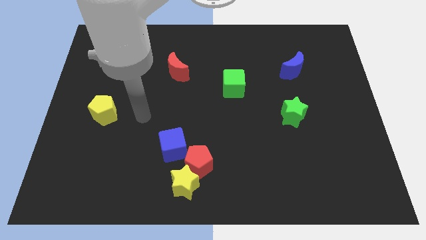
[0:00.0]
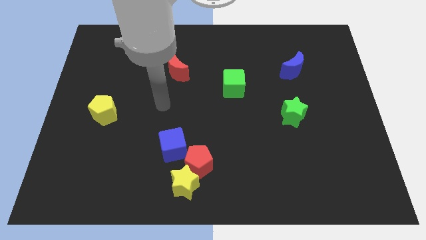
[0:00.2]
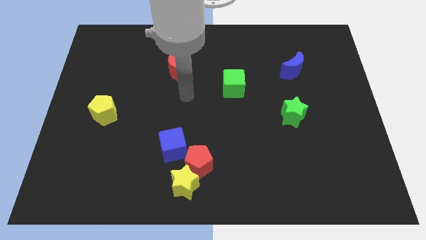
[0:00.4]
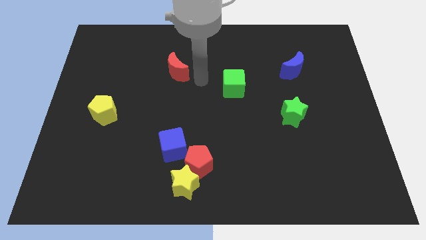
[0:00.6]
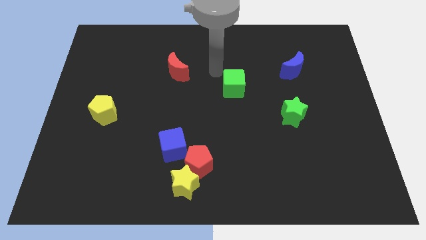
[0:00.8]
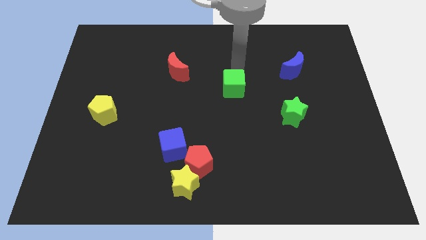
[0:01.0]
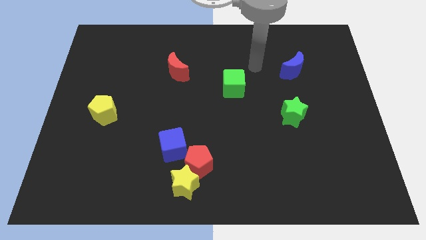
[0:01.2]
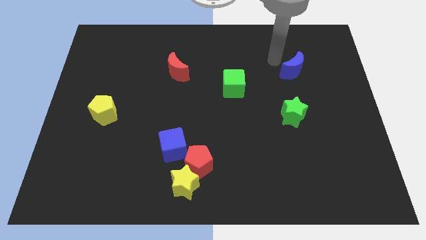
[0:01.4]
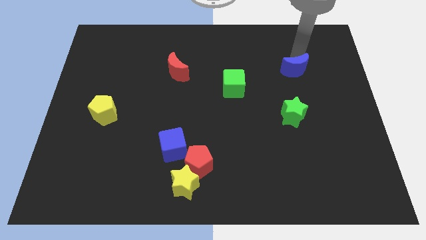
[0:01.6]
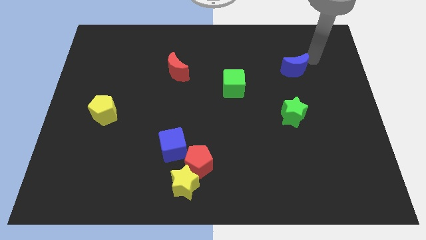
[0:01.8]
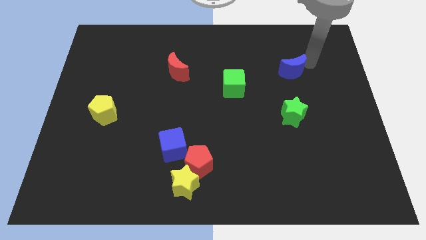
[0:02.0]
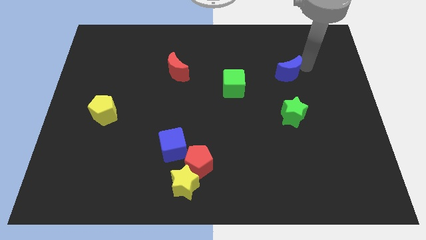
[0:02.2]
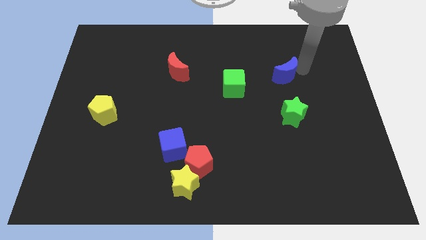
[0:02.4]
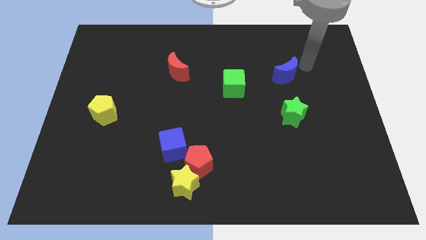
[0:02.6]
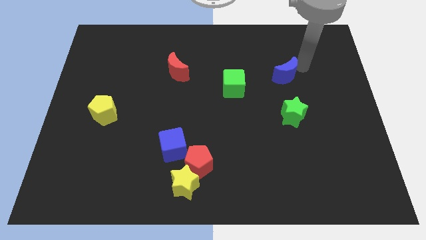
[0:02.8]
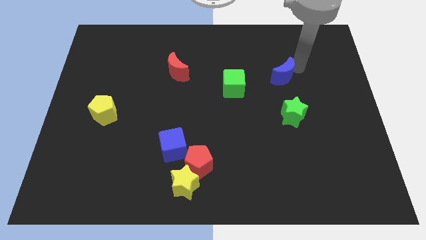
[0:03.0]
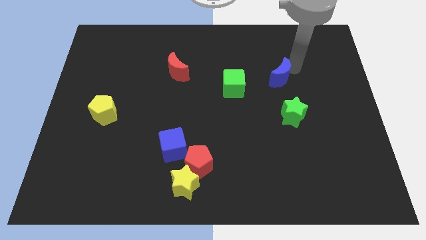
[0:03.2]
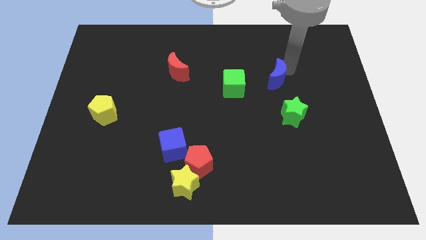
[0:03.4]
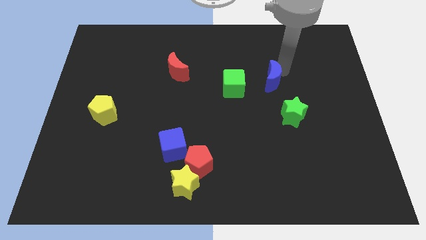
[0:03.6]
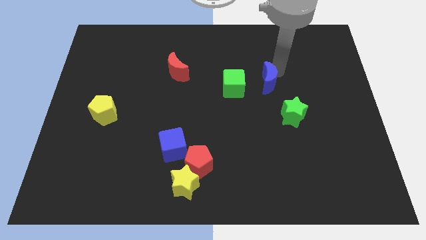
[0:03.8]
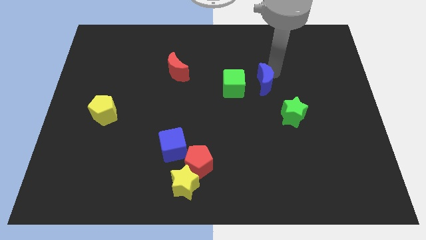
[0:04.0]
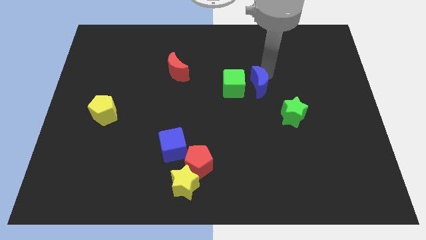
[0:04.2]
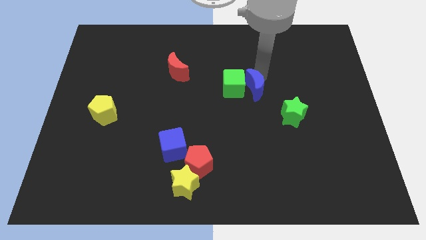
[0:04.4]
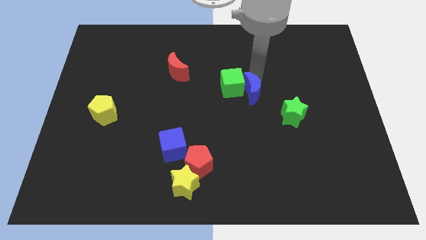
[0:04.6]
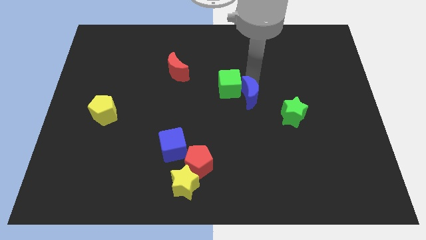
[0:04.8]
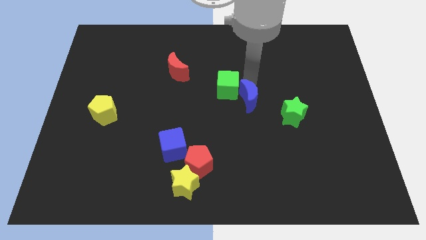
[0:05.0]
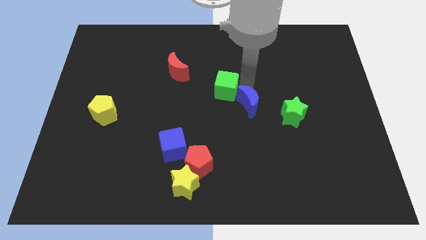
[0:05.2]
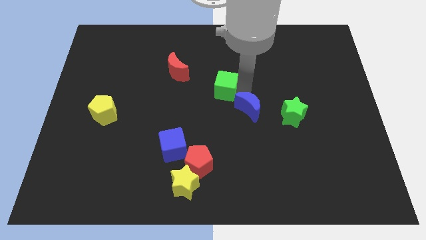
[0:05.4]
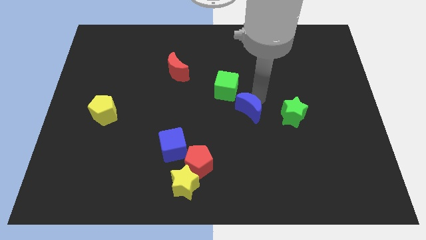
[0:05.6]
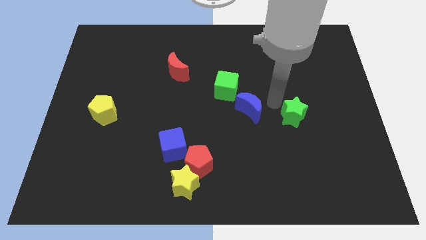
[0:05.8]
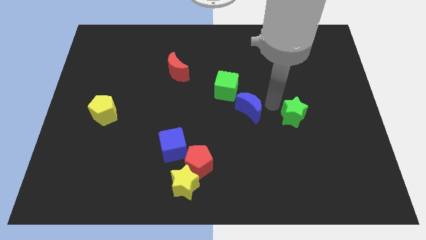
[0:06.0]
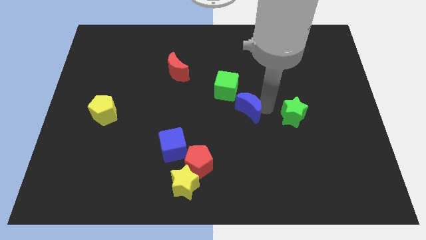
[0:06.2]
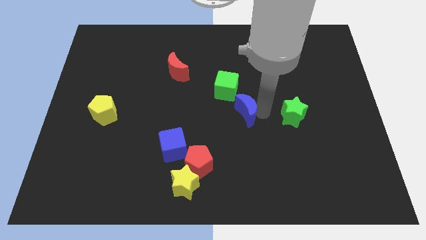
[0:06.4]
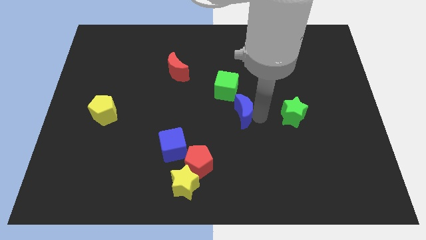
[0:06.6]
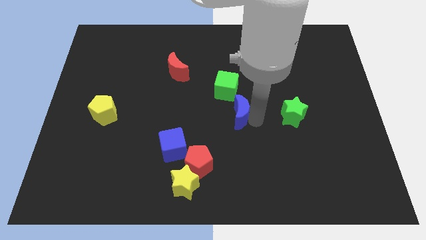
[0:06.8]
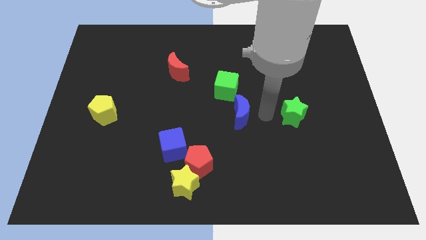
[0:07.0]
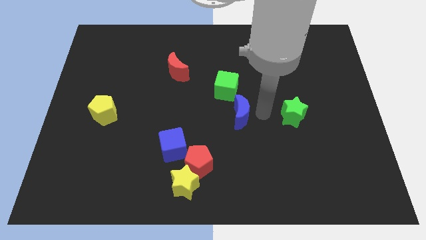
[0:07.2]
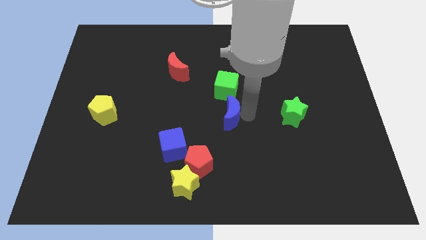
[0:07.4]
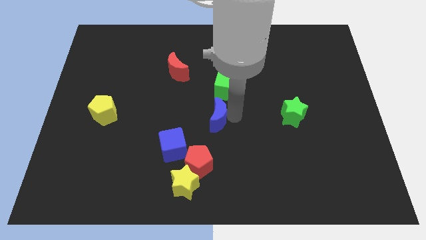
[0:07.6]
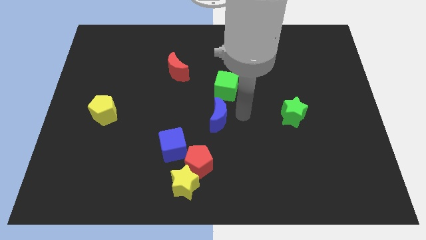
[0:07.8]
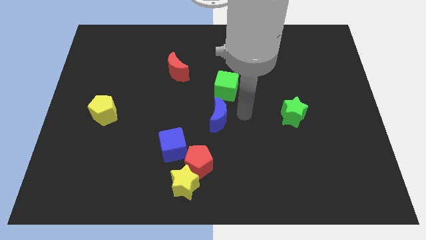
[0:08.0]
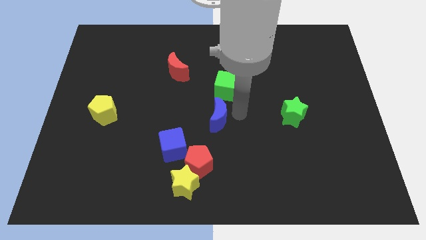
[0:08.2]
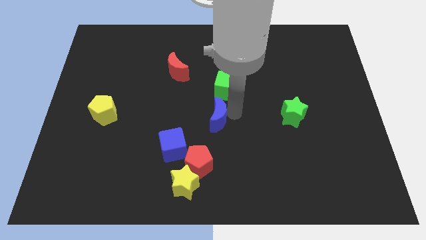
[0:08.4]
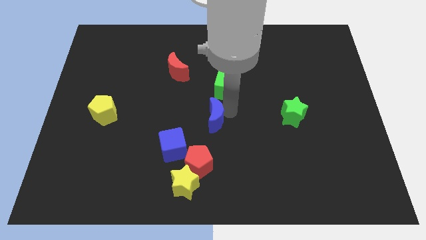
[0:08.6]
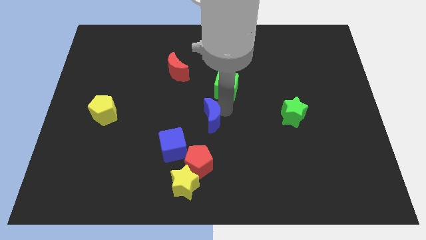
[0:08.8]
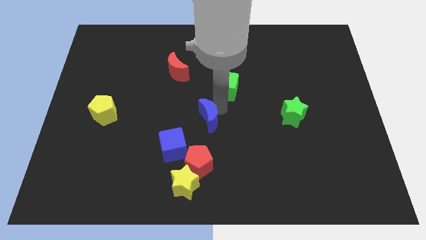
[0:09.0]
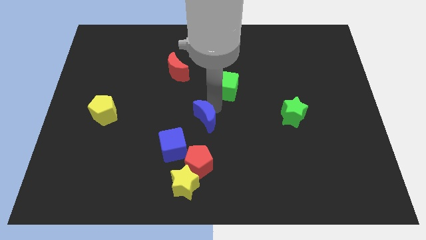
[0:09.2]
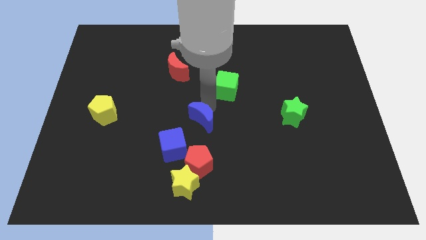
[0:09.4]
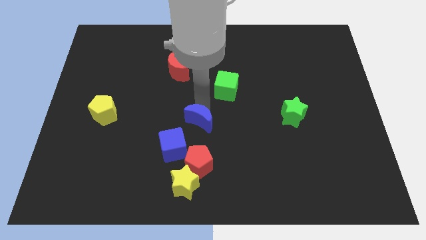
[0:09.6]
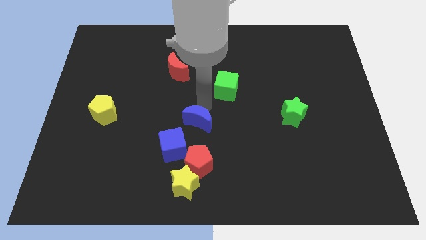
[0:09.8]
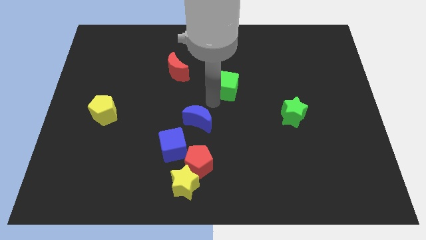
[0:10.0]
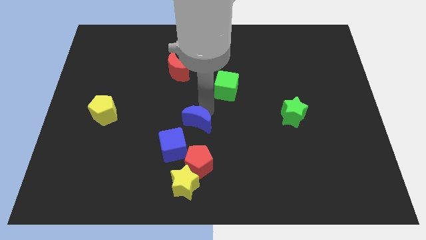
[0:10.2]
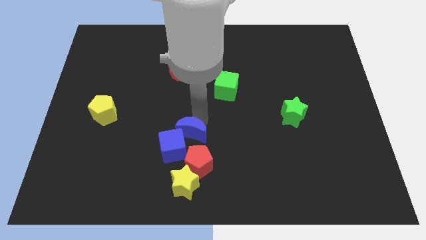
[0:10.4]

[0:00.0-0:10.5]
move the blue moon next to the blue cube

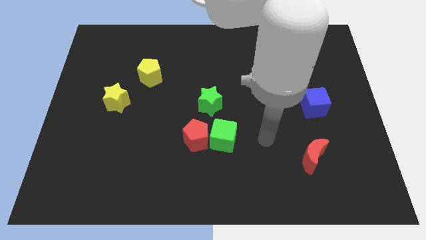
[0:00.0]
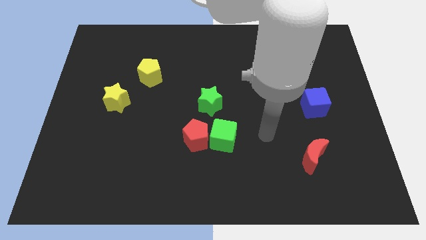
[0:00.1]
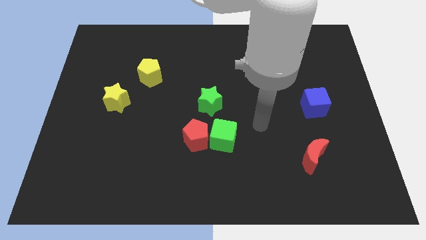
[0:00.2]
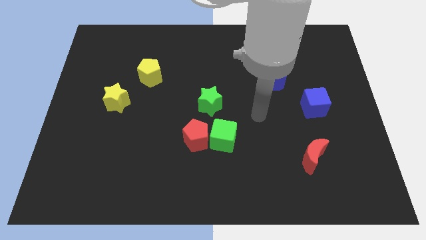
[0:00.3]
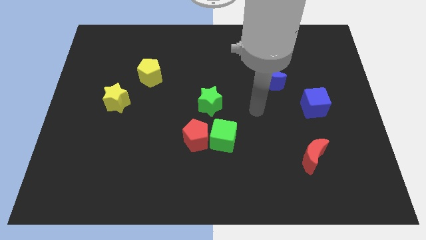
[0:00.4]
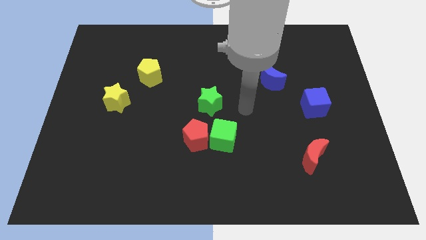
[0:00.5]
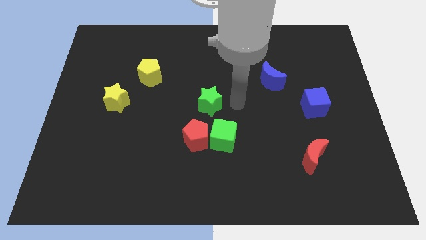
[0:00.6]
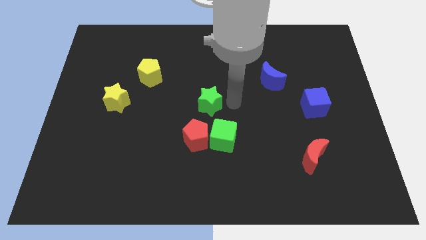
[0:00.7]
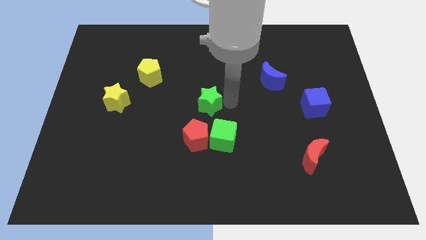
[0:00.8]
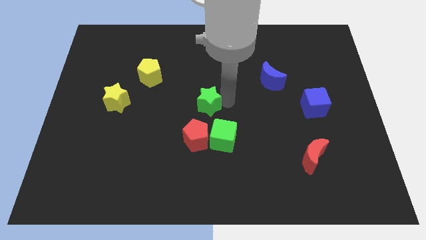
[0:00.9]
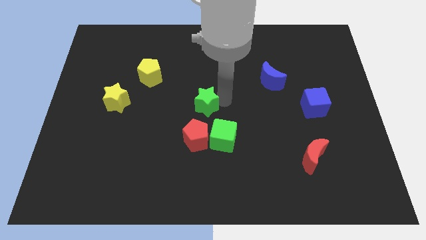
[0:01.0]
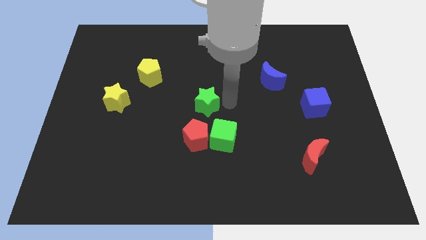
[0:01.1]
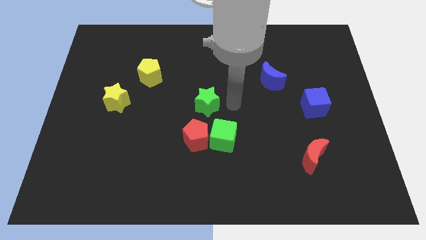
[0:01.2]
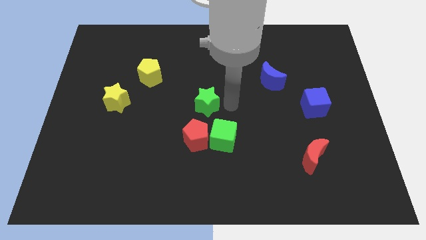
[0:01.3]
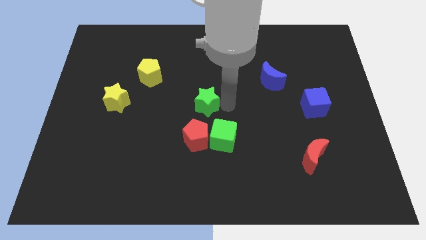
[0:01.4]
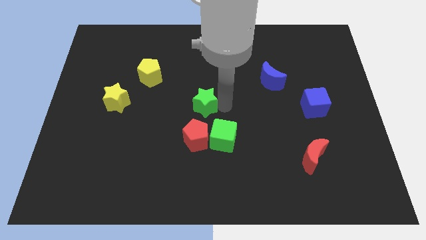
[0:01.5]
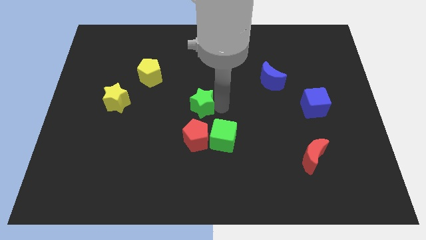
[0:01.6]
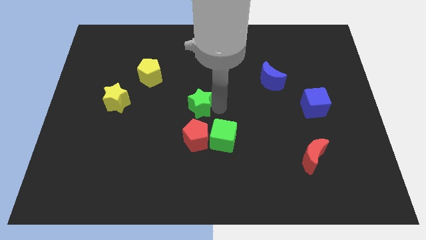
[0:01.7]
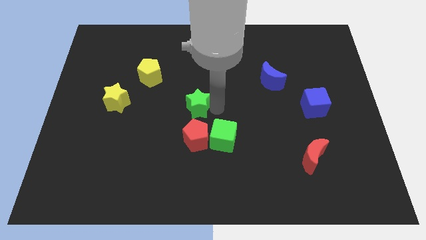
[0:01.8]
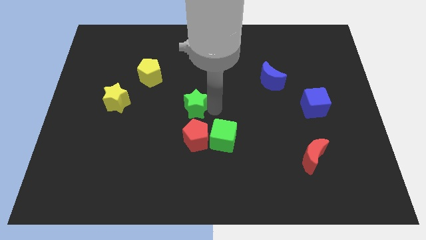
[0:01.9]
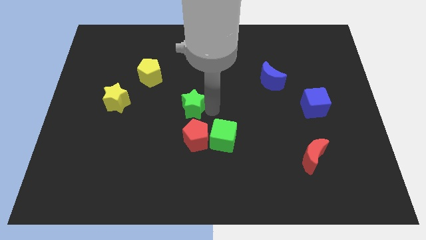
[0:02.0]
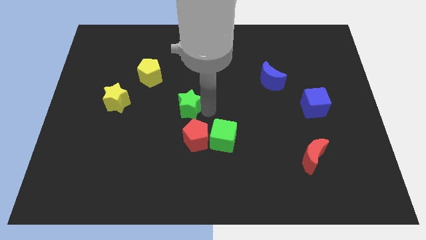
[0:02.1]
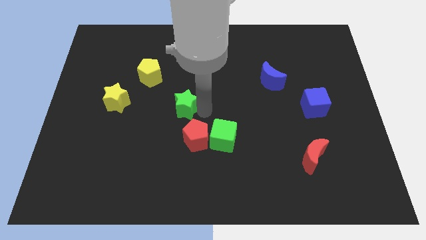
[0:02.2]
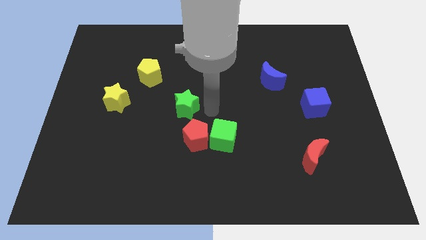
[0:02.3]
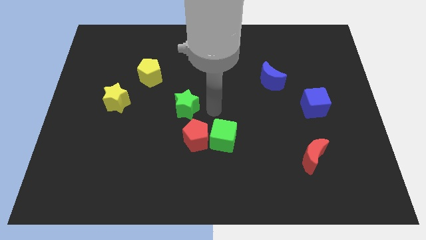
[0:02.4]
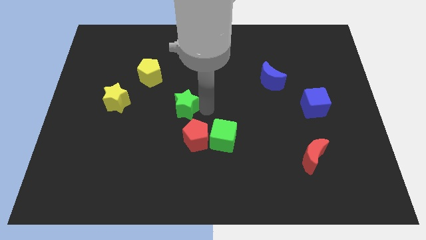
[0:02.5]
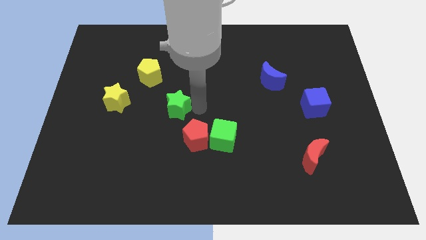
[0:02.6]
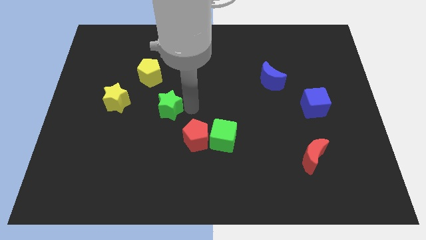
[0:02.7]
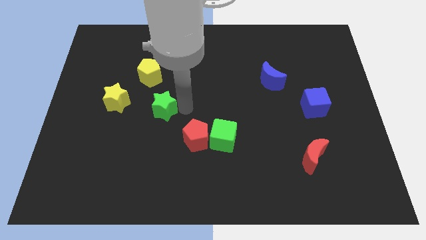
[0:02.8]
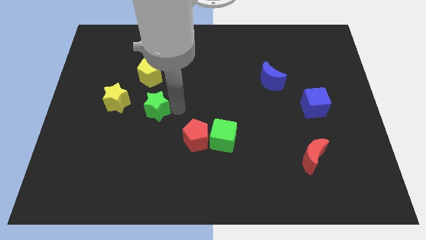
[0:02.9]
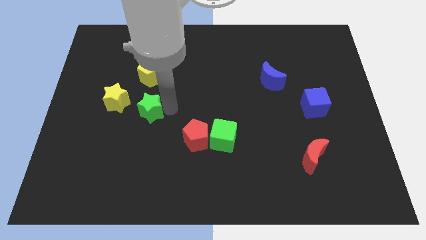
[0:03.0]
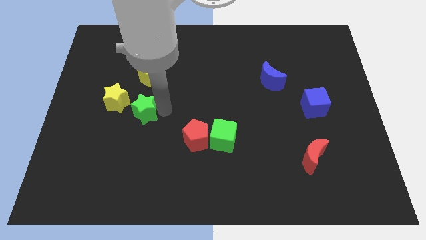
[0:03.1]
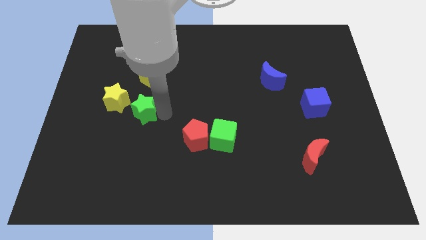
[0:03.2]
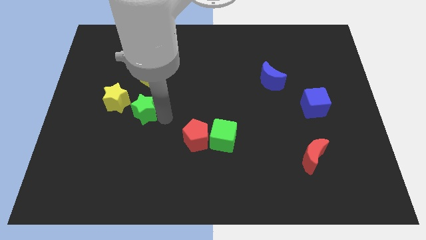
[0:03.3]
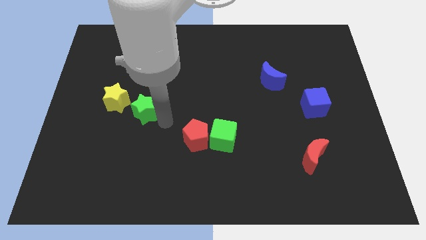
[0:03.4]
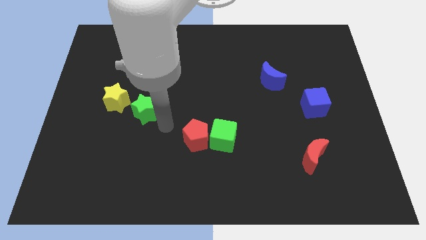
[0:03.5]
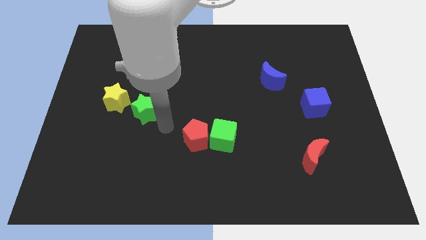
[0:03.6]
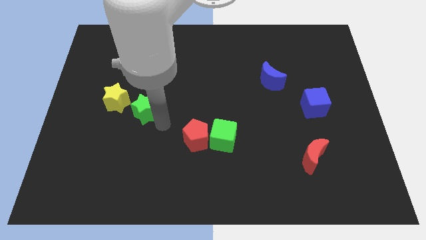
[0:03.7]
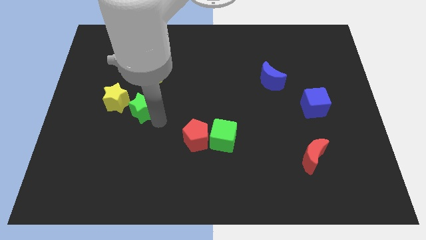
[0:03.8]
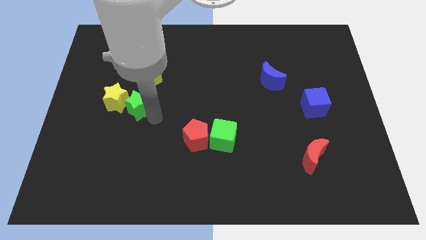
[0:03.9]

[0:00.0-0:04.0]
put the green star to the yellow star
